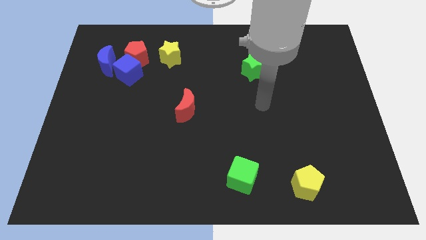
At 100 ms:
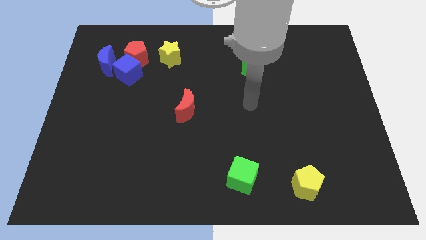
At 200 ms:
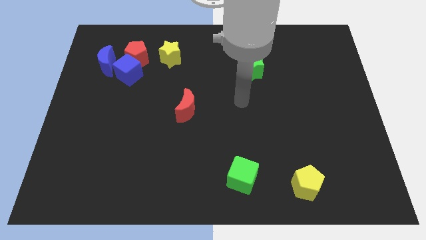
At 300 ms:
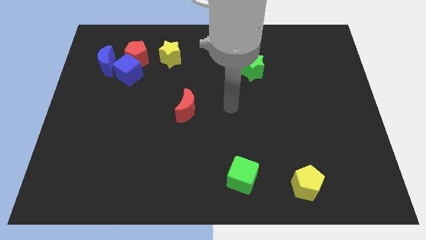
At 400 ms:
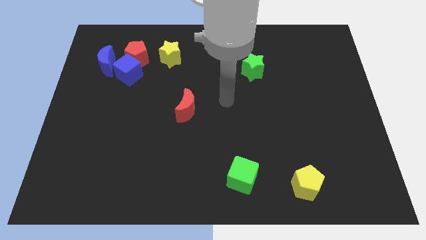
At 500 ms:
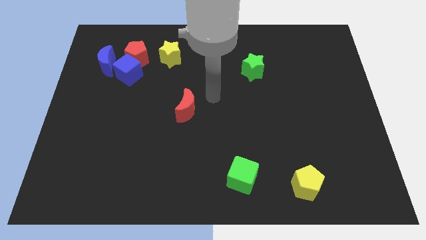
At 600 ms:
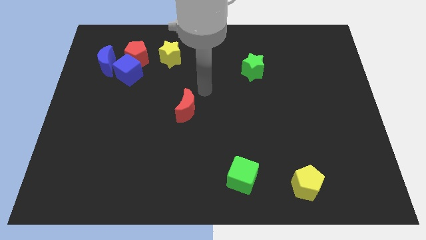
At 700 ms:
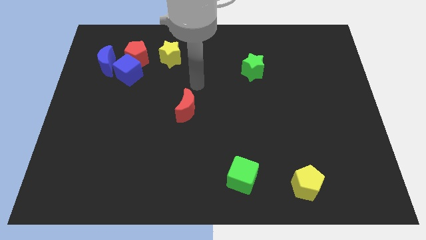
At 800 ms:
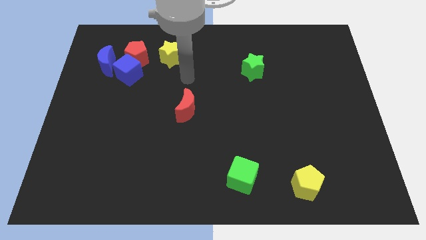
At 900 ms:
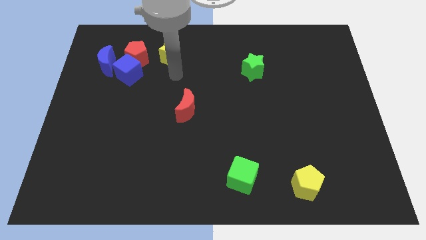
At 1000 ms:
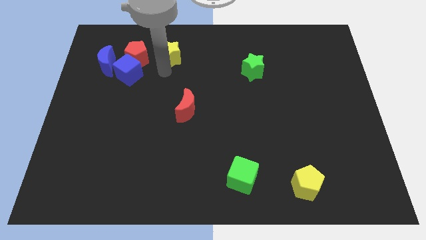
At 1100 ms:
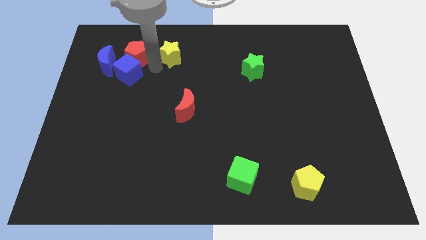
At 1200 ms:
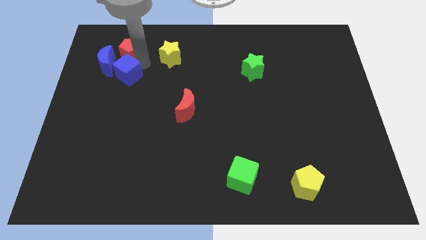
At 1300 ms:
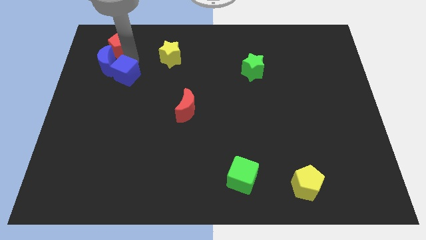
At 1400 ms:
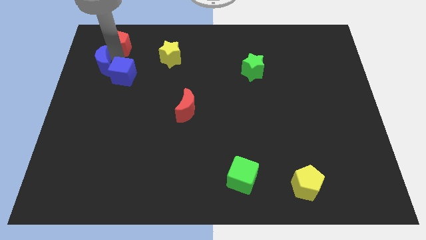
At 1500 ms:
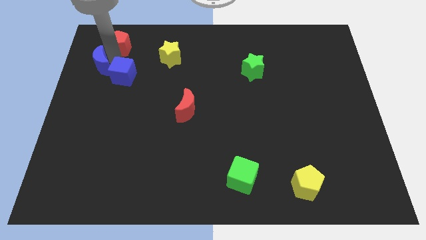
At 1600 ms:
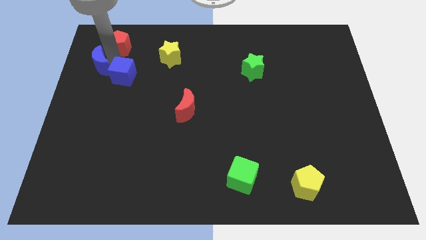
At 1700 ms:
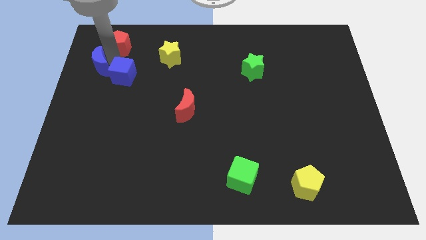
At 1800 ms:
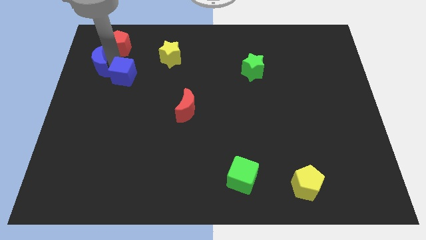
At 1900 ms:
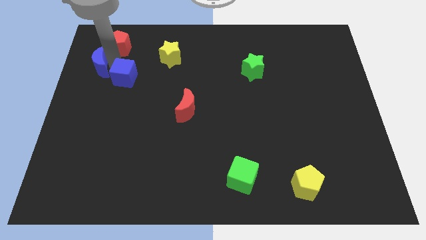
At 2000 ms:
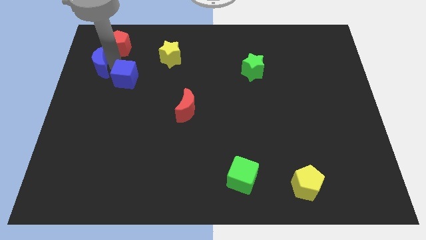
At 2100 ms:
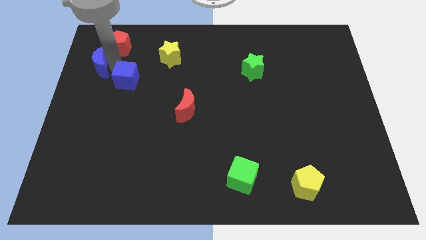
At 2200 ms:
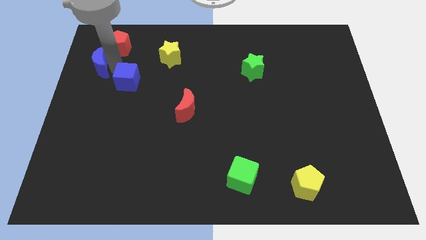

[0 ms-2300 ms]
separate the blue cube from the red pentagon and blue moon

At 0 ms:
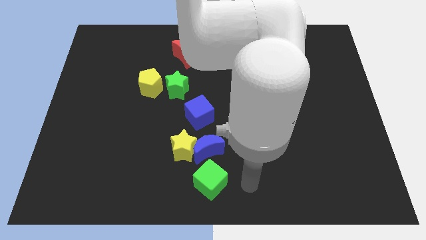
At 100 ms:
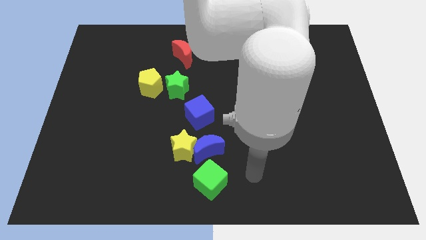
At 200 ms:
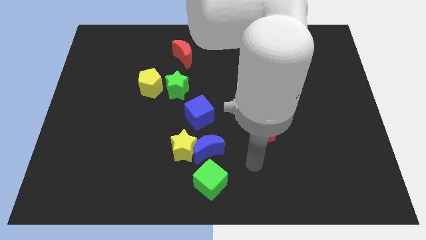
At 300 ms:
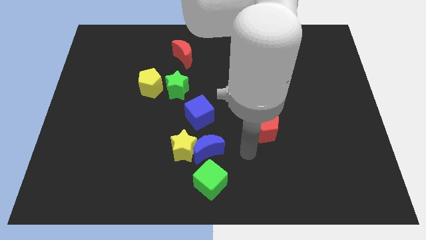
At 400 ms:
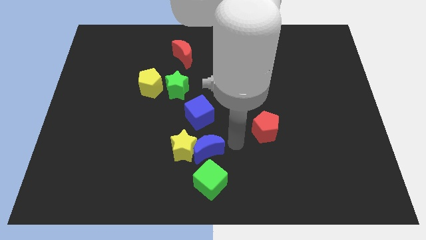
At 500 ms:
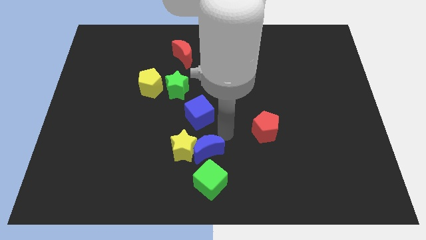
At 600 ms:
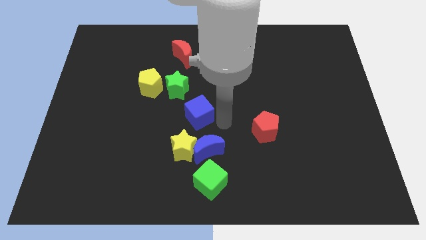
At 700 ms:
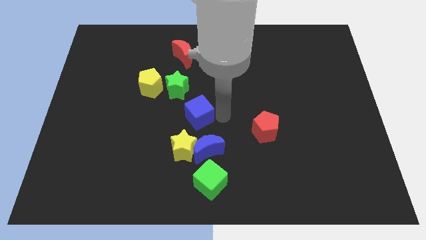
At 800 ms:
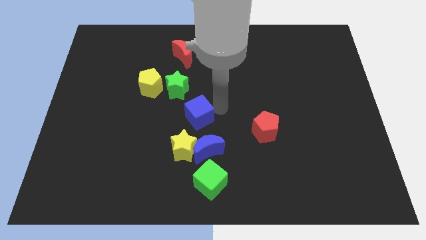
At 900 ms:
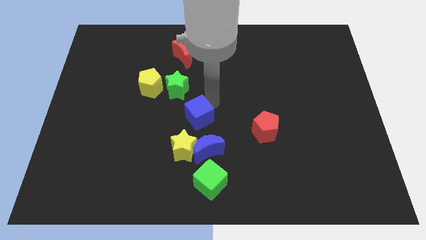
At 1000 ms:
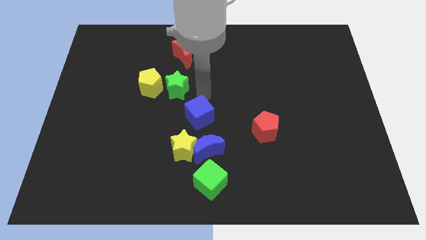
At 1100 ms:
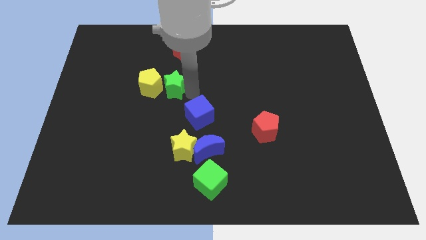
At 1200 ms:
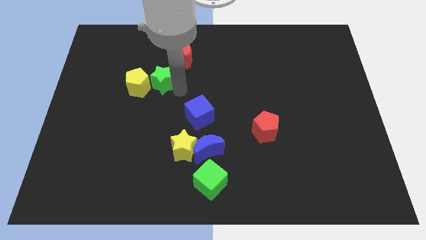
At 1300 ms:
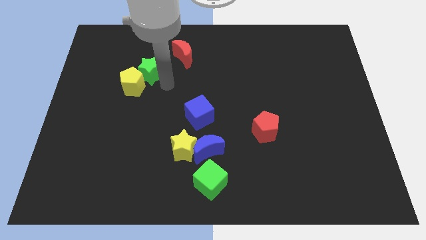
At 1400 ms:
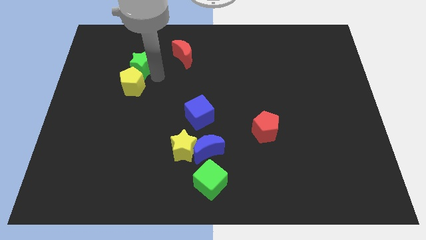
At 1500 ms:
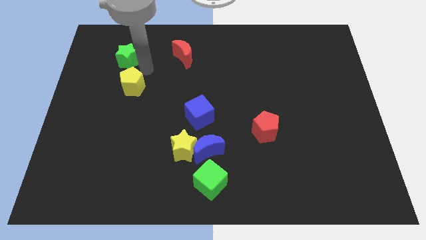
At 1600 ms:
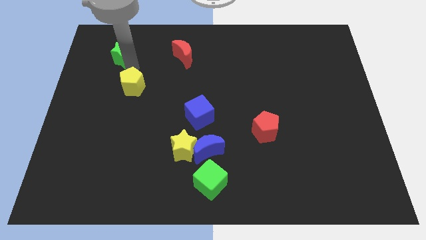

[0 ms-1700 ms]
move the yellow pentagon away from the green star

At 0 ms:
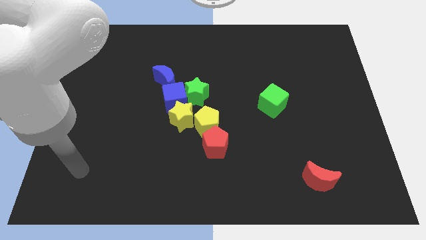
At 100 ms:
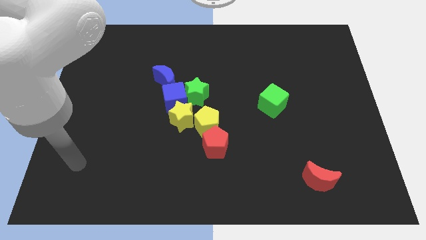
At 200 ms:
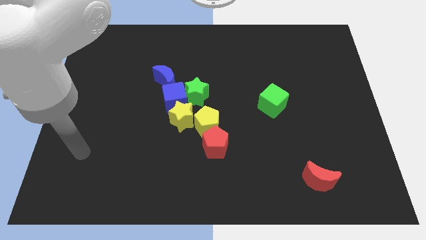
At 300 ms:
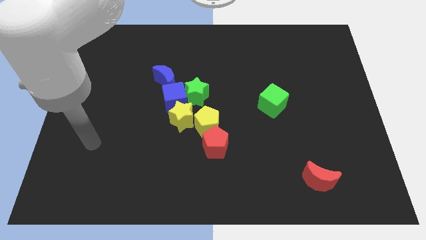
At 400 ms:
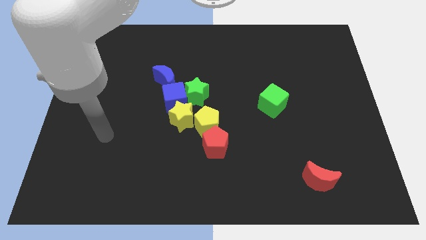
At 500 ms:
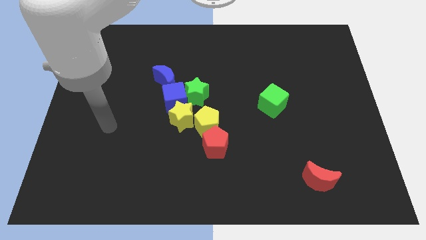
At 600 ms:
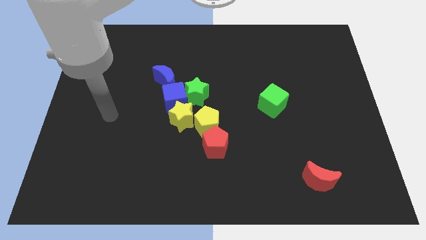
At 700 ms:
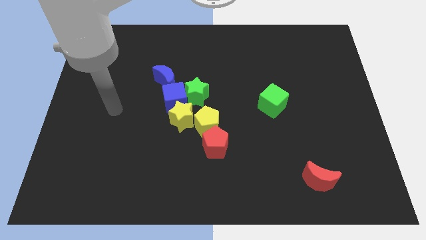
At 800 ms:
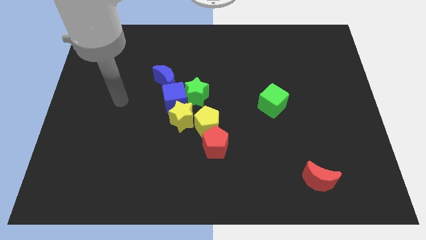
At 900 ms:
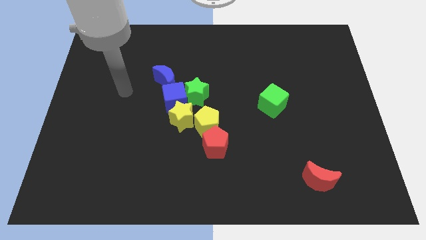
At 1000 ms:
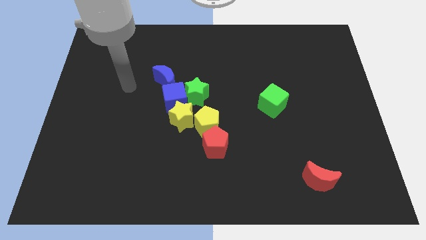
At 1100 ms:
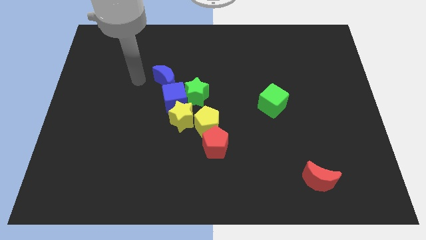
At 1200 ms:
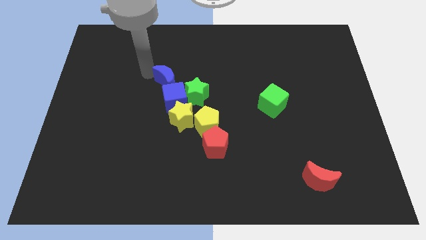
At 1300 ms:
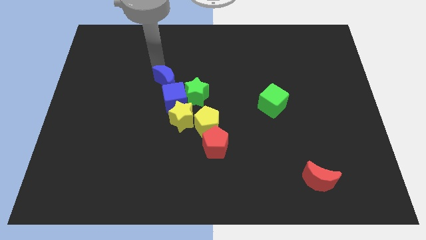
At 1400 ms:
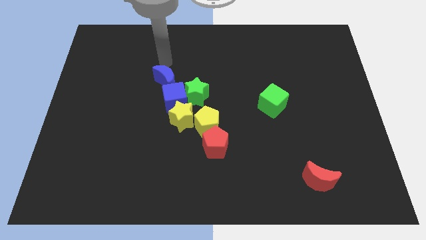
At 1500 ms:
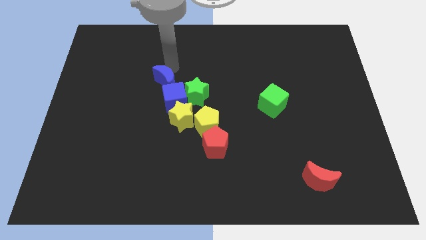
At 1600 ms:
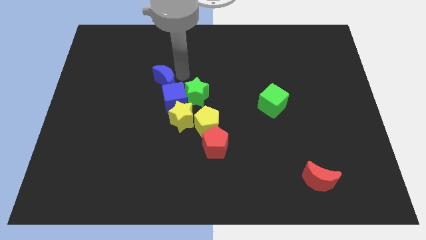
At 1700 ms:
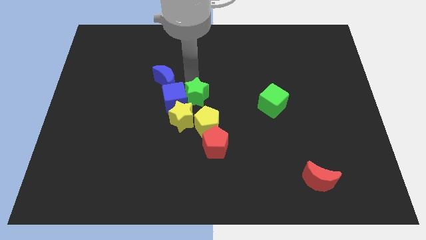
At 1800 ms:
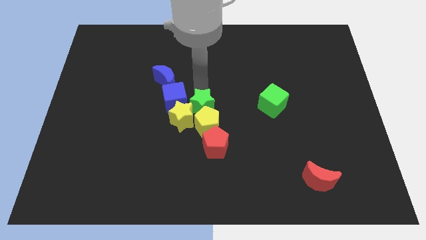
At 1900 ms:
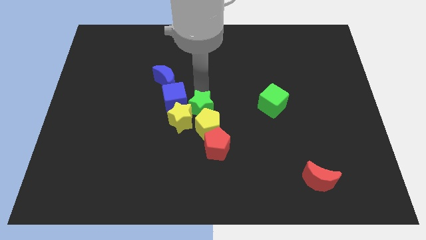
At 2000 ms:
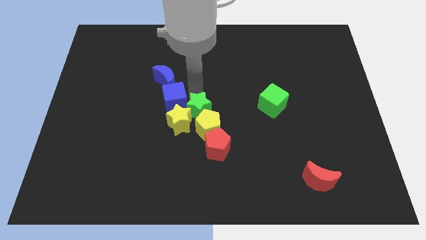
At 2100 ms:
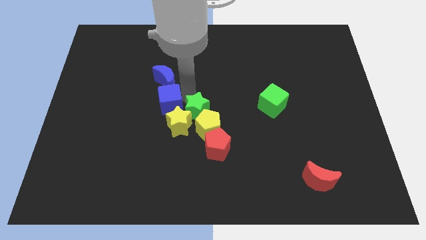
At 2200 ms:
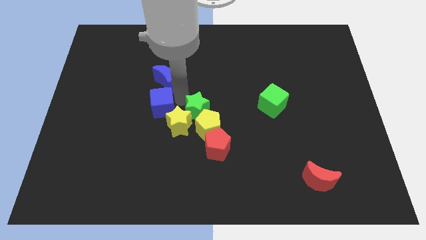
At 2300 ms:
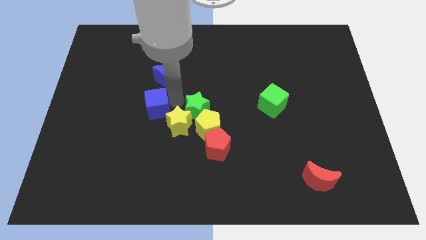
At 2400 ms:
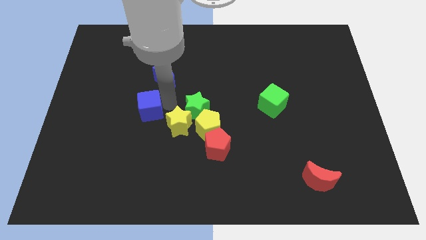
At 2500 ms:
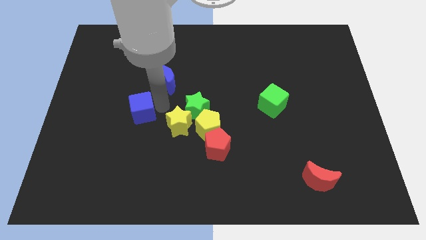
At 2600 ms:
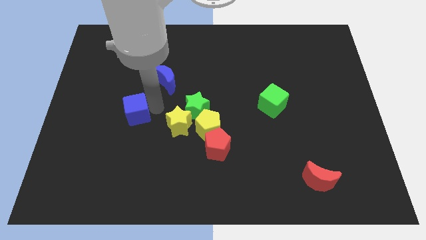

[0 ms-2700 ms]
separate the blue cube from the clump

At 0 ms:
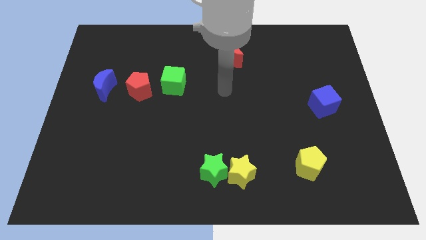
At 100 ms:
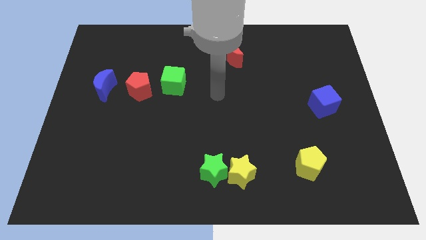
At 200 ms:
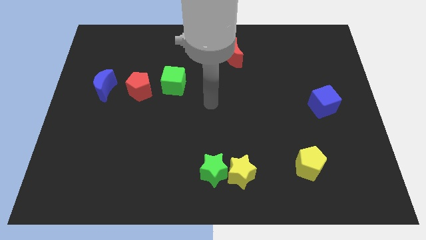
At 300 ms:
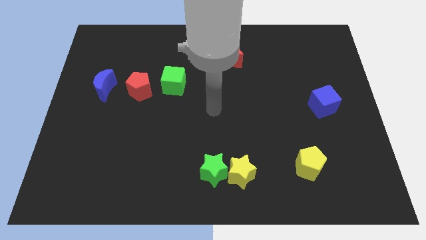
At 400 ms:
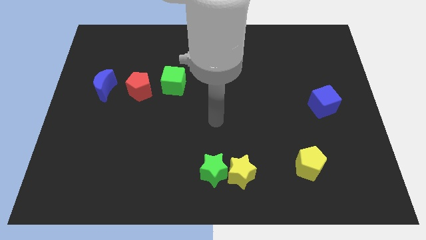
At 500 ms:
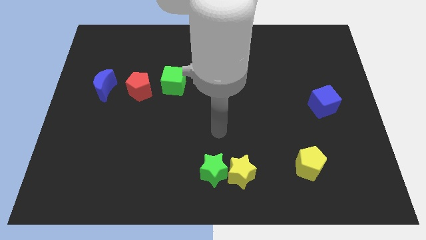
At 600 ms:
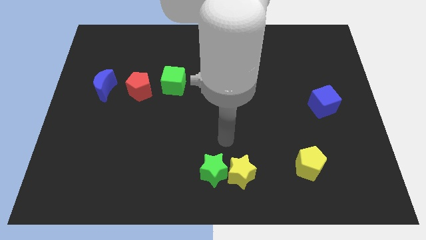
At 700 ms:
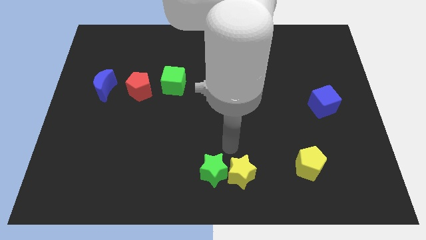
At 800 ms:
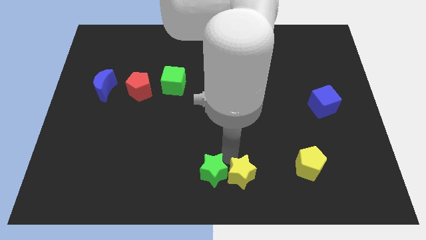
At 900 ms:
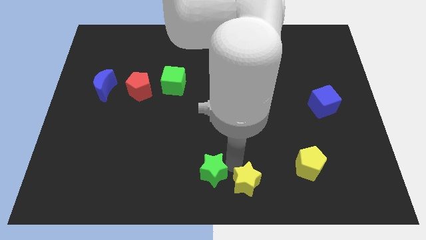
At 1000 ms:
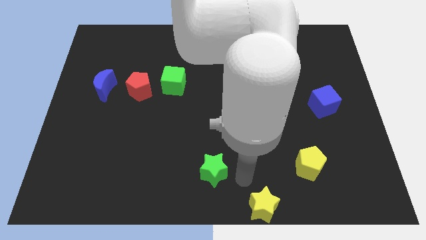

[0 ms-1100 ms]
move the green star away from the yellow star

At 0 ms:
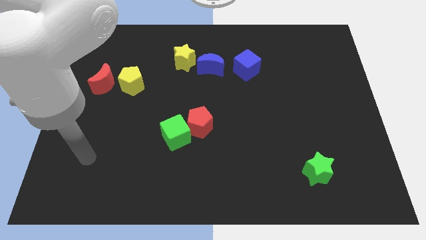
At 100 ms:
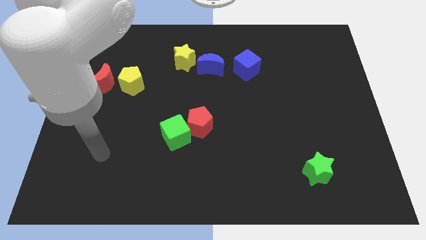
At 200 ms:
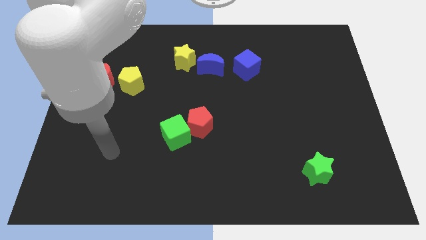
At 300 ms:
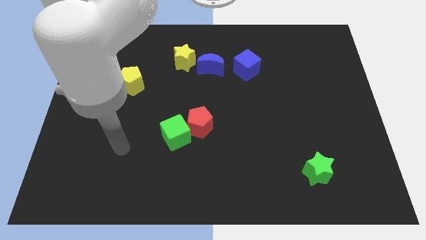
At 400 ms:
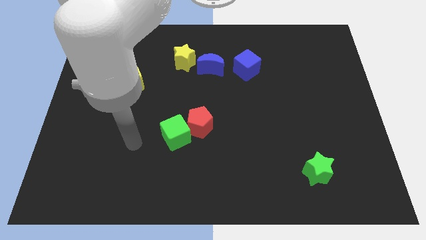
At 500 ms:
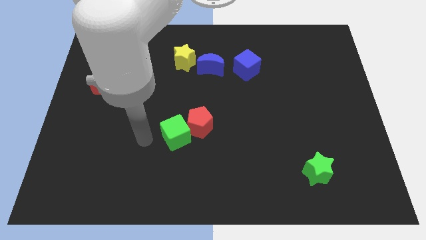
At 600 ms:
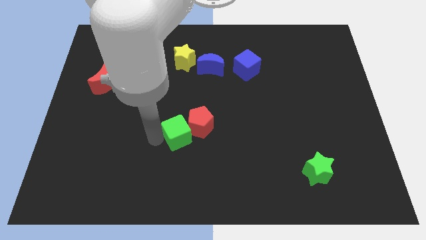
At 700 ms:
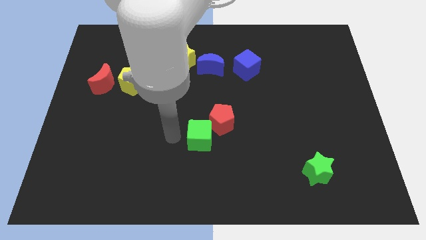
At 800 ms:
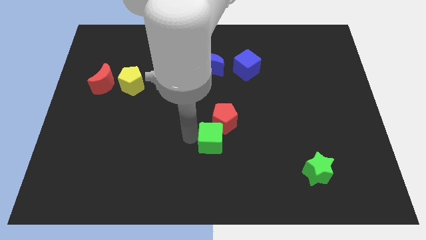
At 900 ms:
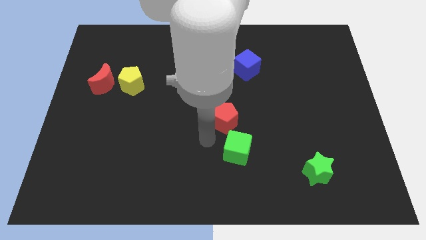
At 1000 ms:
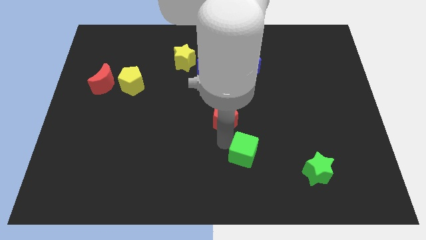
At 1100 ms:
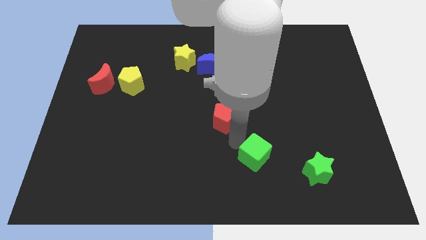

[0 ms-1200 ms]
move the red pentagon away from the green cube

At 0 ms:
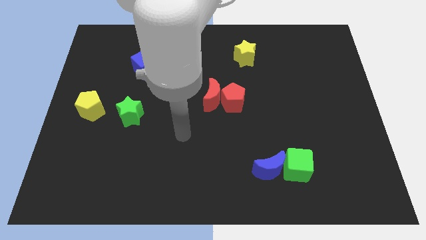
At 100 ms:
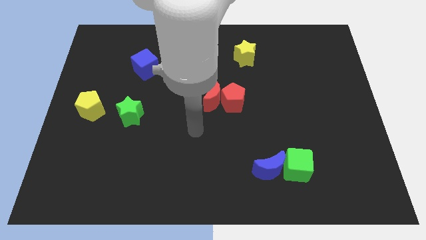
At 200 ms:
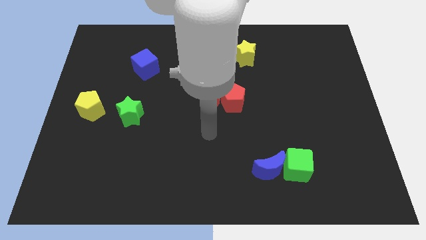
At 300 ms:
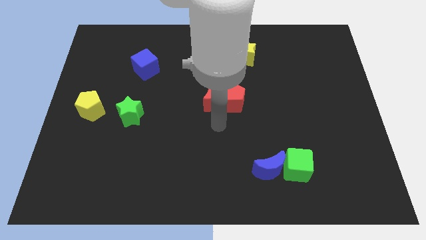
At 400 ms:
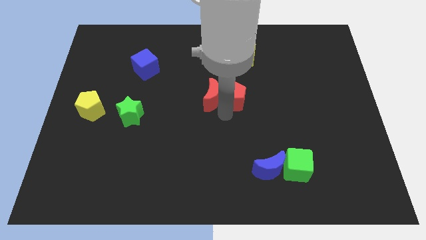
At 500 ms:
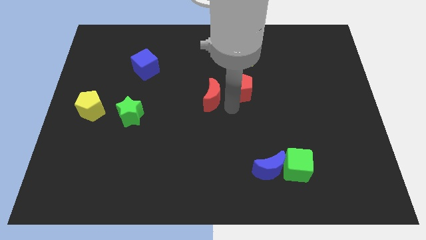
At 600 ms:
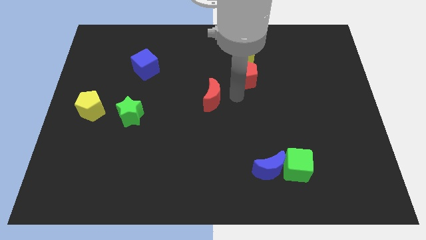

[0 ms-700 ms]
move the red moon away from the red pentagon
